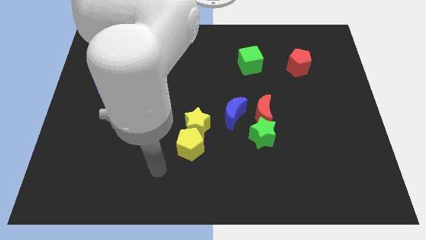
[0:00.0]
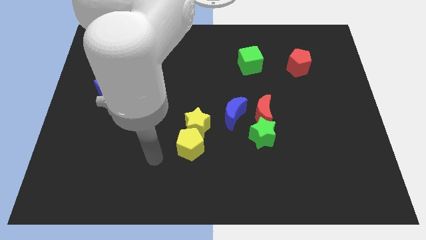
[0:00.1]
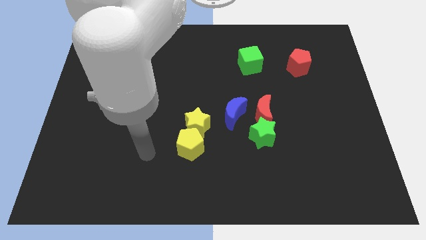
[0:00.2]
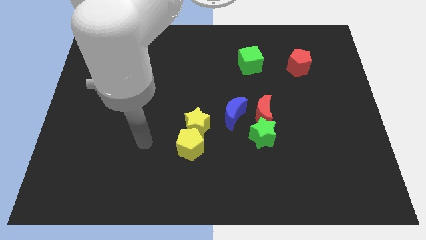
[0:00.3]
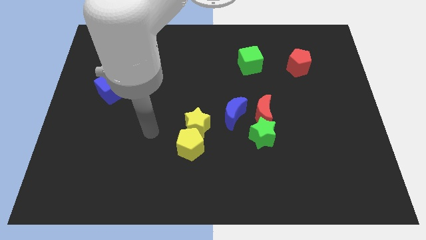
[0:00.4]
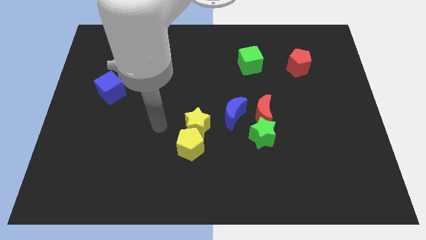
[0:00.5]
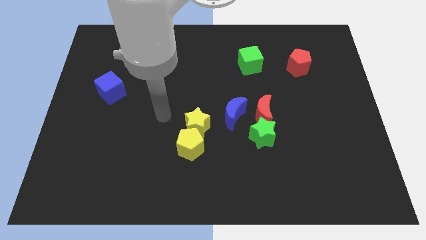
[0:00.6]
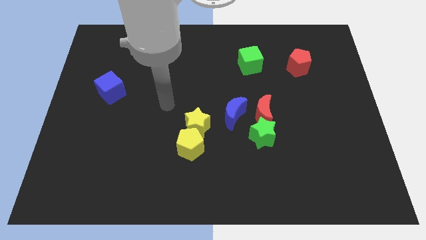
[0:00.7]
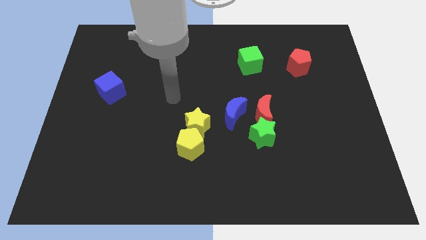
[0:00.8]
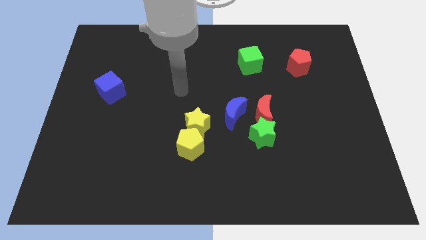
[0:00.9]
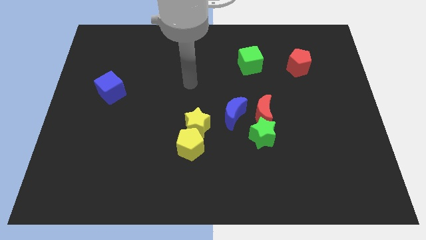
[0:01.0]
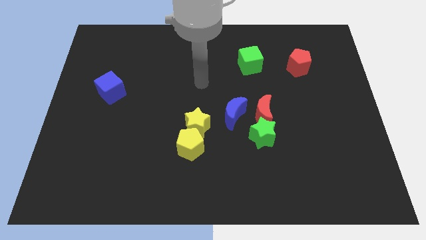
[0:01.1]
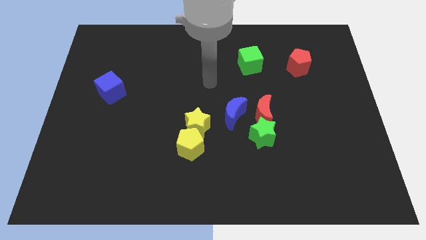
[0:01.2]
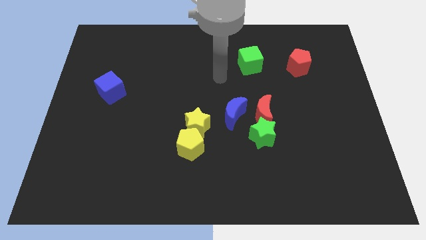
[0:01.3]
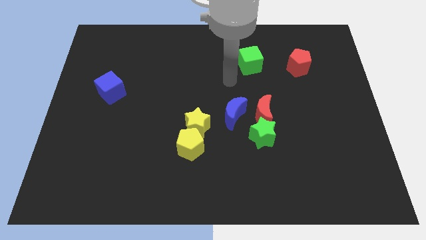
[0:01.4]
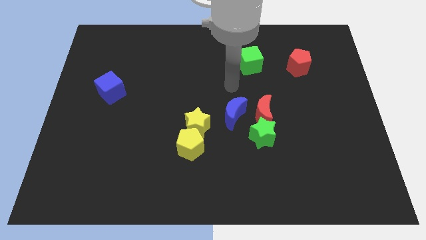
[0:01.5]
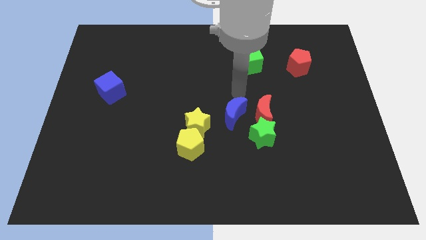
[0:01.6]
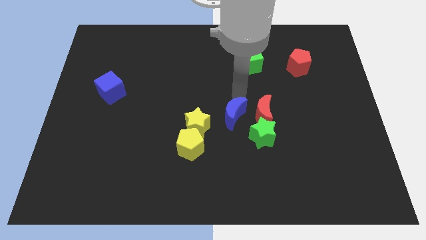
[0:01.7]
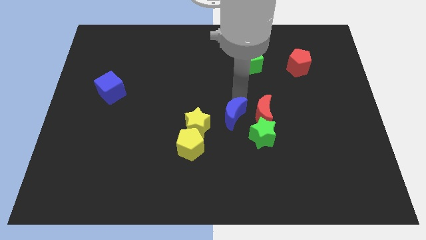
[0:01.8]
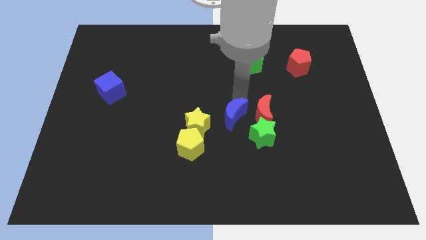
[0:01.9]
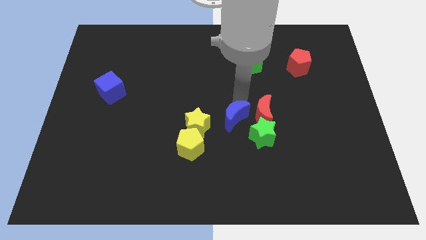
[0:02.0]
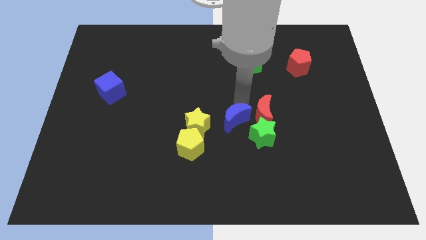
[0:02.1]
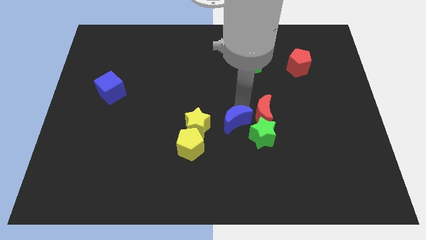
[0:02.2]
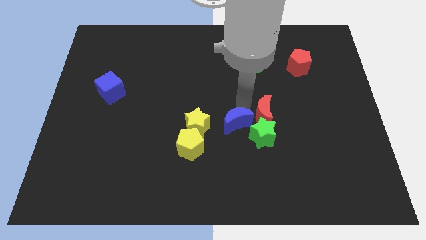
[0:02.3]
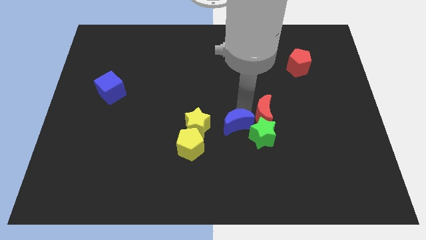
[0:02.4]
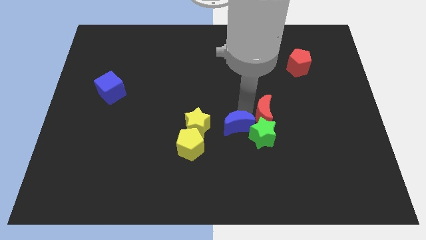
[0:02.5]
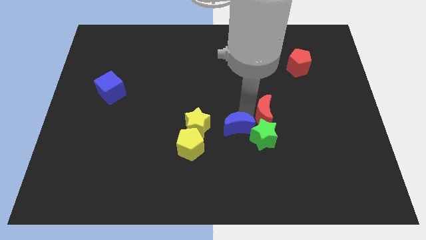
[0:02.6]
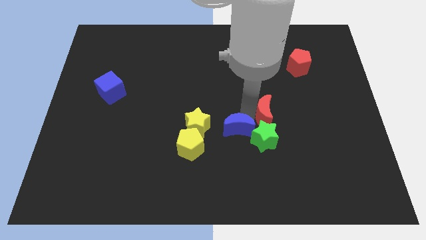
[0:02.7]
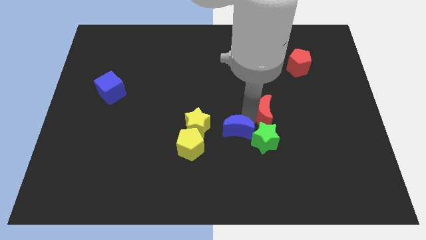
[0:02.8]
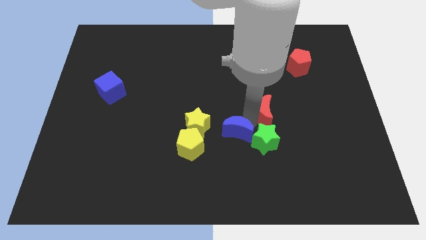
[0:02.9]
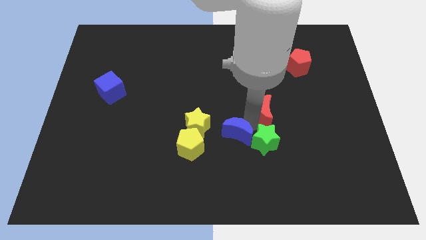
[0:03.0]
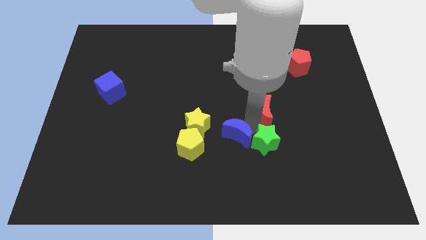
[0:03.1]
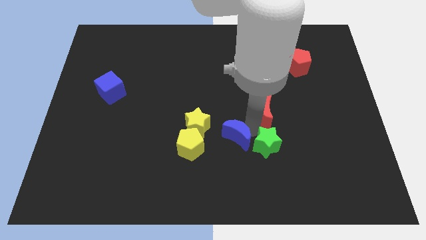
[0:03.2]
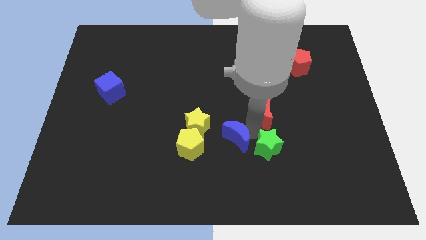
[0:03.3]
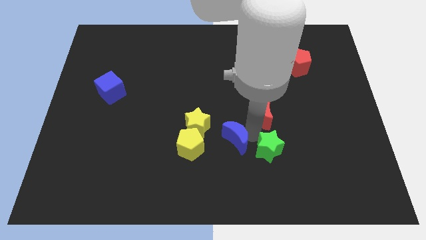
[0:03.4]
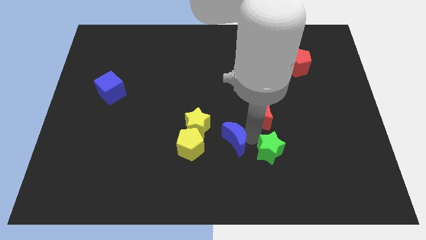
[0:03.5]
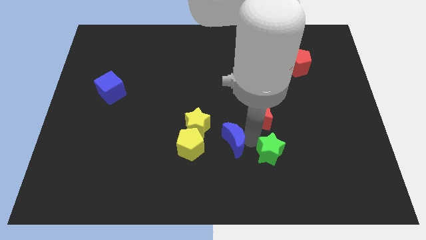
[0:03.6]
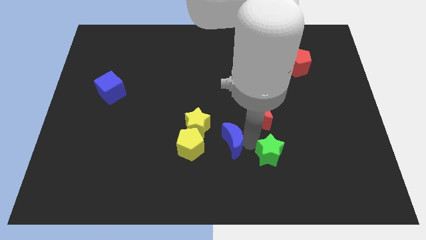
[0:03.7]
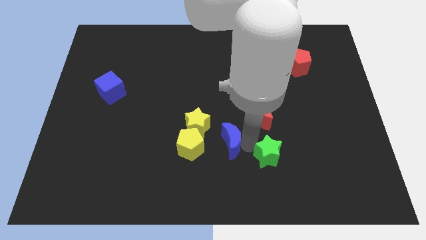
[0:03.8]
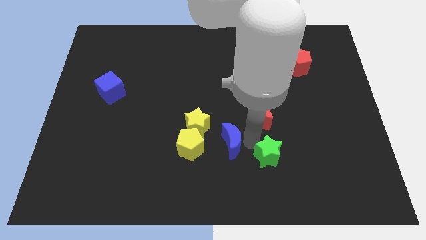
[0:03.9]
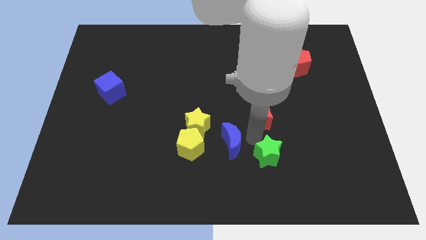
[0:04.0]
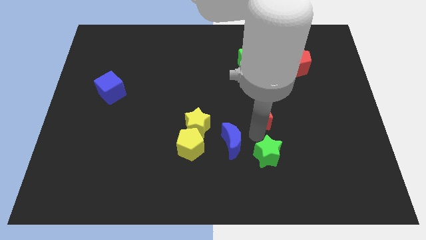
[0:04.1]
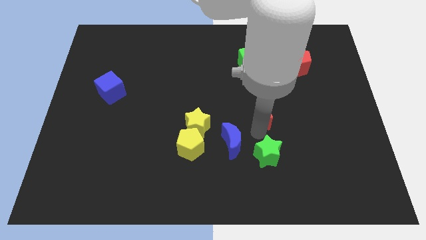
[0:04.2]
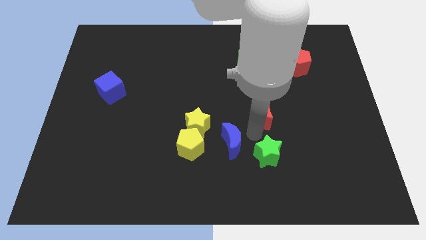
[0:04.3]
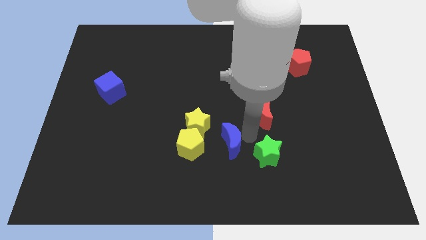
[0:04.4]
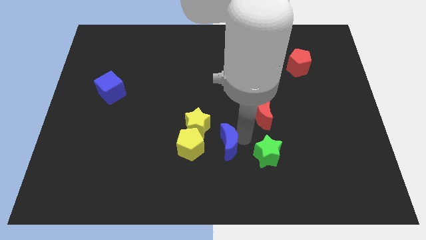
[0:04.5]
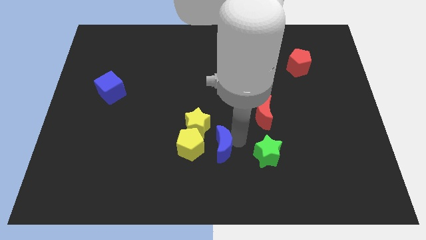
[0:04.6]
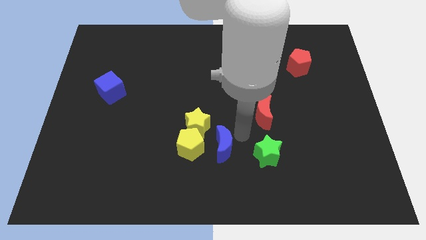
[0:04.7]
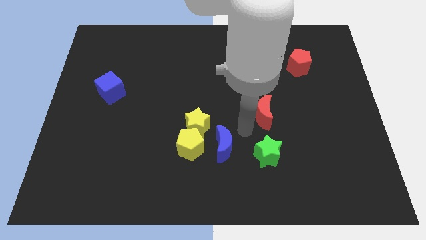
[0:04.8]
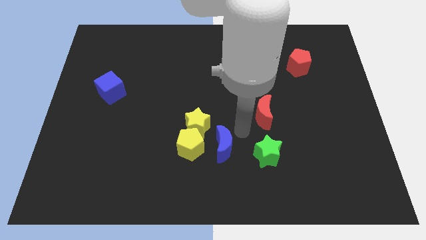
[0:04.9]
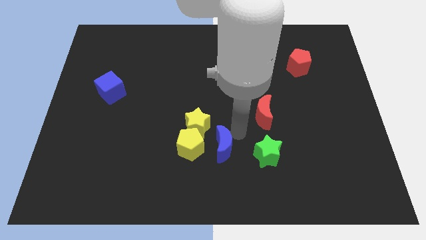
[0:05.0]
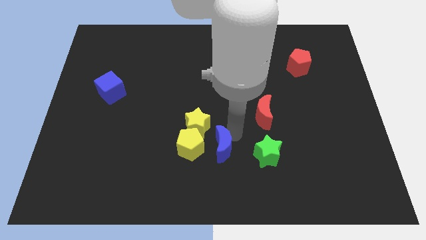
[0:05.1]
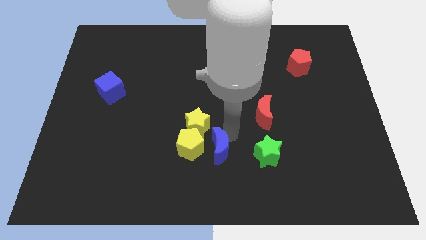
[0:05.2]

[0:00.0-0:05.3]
slide the blue moon below the yellow star

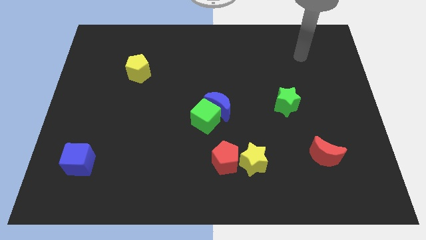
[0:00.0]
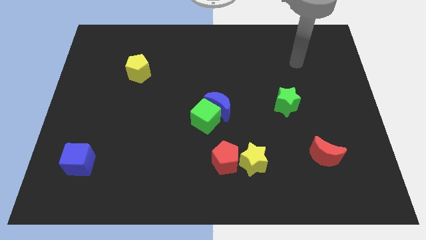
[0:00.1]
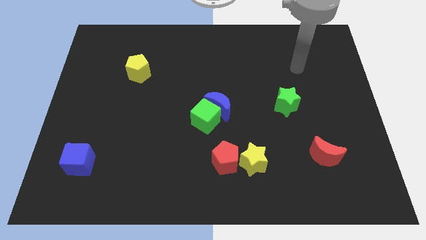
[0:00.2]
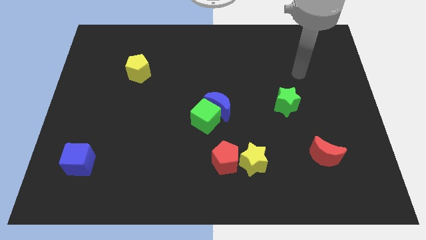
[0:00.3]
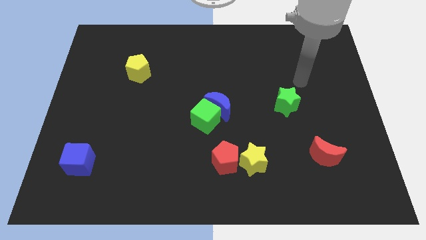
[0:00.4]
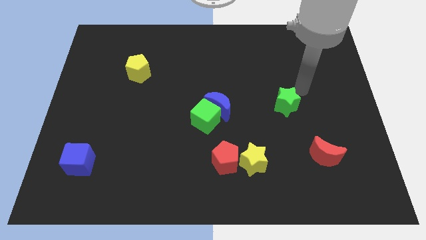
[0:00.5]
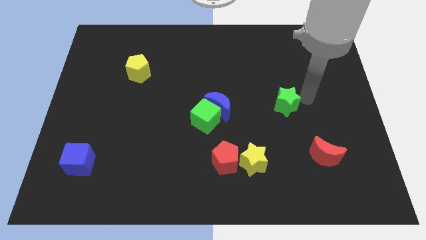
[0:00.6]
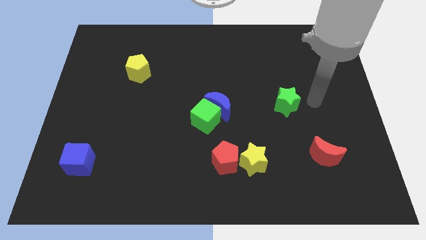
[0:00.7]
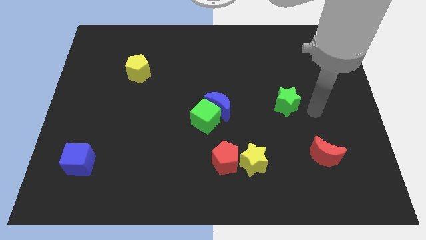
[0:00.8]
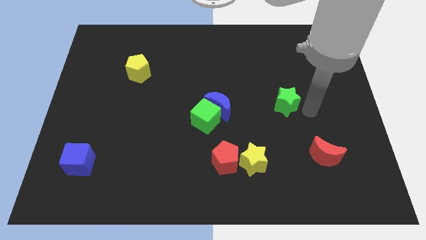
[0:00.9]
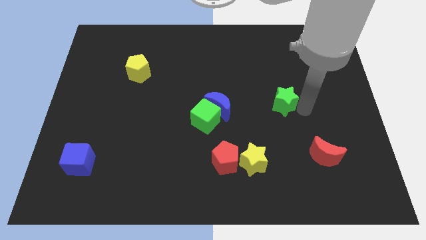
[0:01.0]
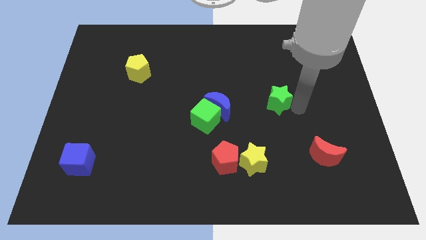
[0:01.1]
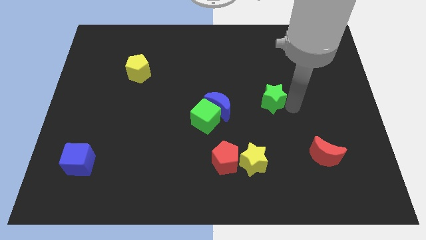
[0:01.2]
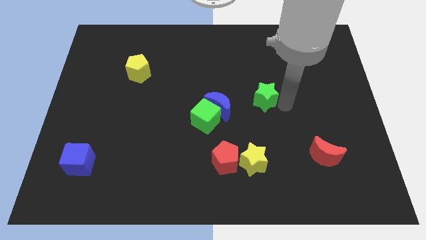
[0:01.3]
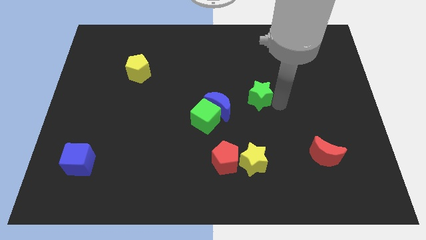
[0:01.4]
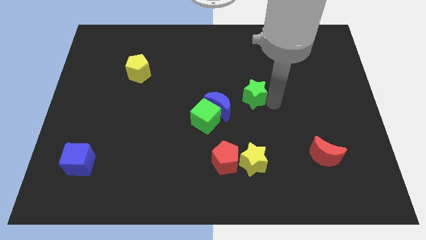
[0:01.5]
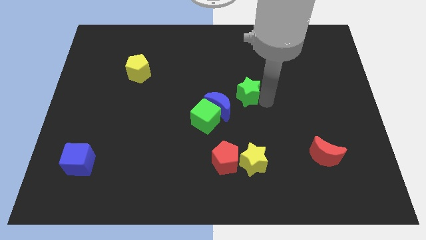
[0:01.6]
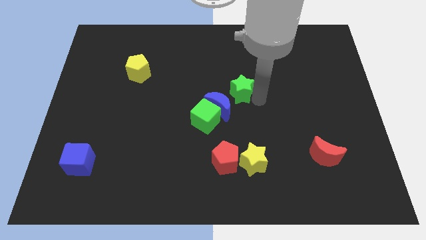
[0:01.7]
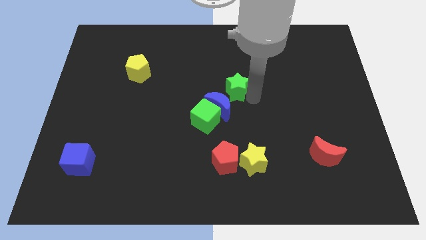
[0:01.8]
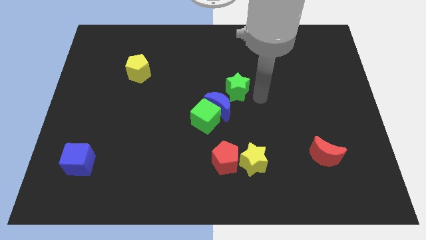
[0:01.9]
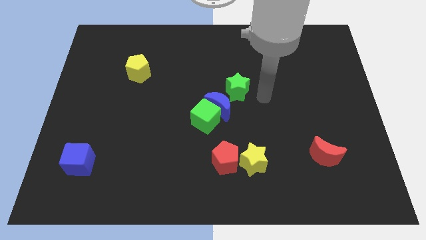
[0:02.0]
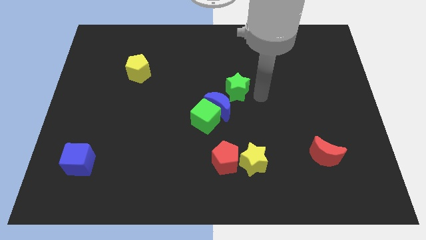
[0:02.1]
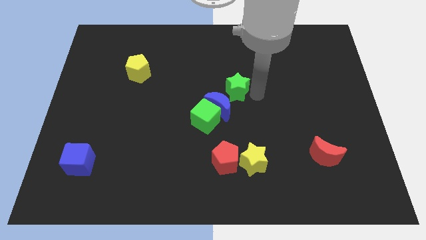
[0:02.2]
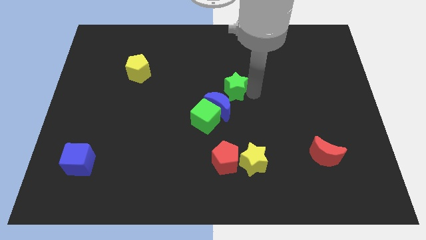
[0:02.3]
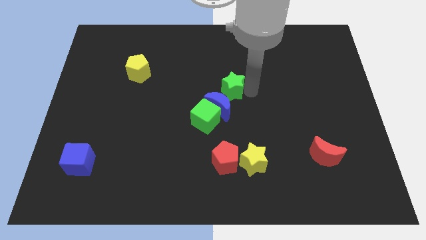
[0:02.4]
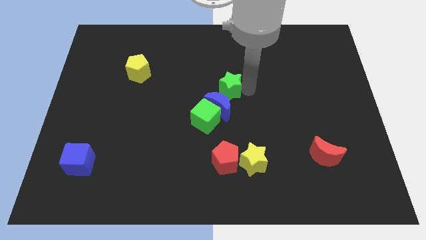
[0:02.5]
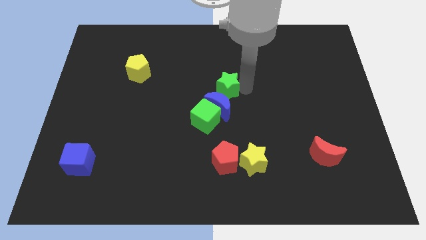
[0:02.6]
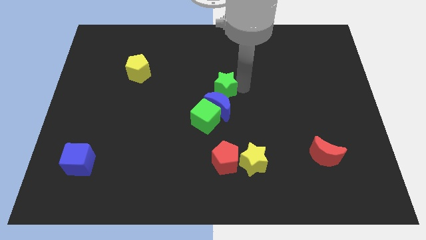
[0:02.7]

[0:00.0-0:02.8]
push the green star to the top of the green cube

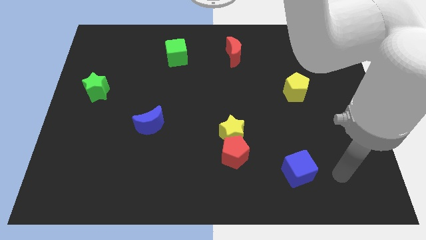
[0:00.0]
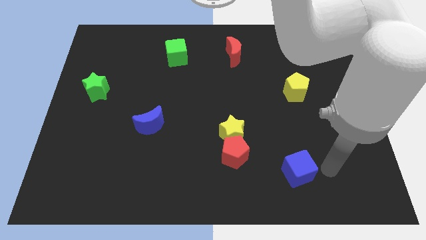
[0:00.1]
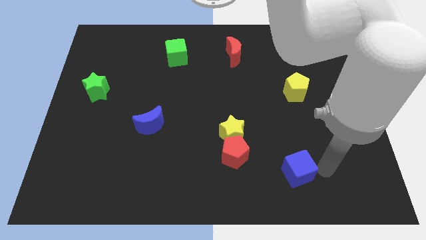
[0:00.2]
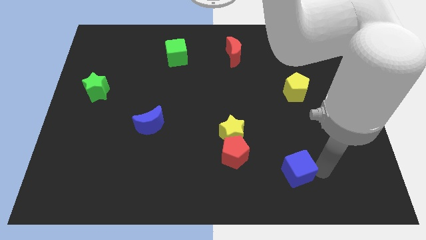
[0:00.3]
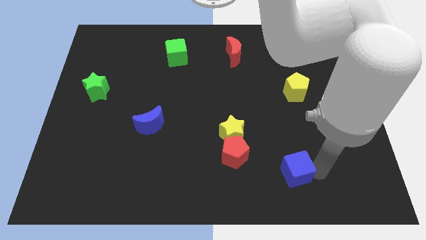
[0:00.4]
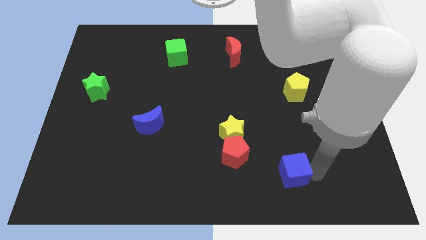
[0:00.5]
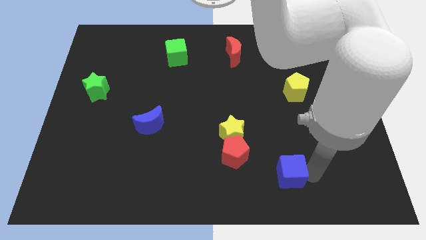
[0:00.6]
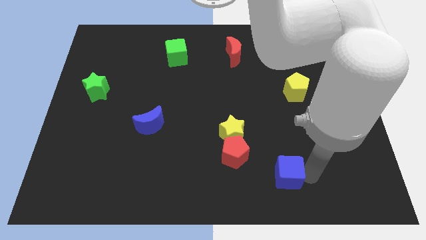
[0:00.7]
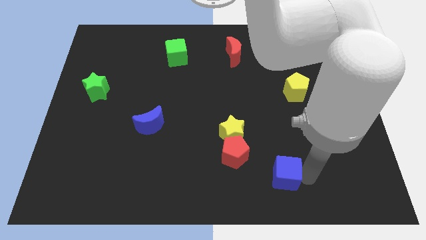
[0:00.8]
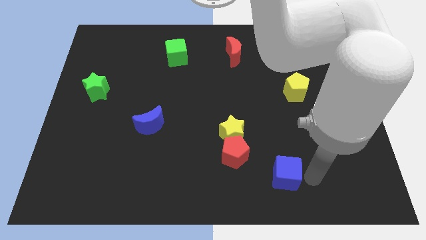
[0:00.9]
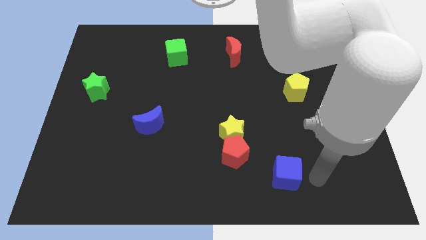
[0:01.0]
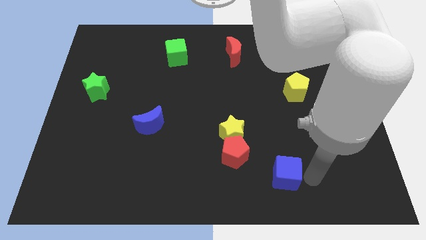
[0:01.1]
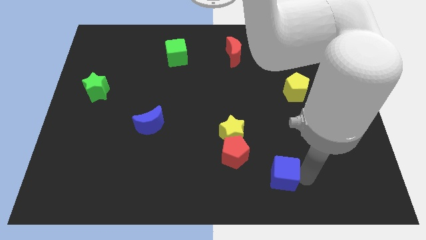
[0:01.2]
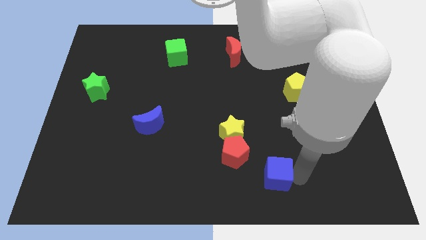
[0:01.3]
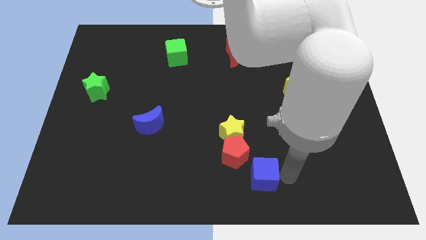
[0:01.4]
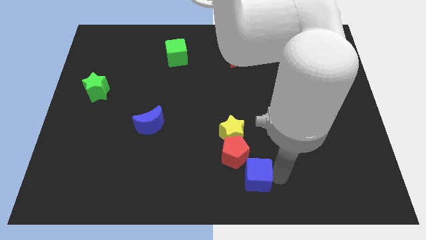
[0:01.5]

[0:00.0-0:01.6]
move the blue cube to the bottom side of the yellow star
